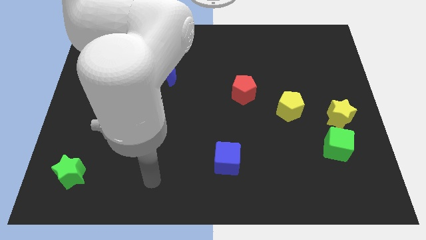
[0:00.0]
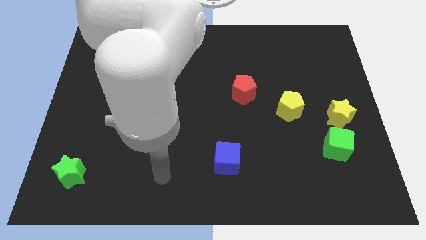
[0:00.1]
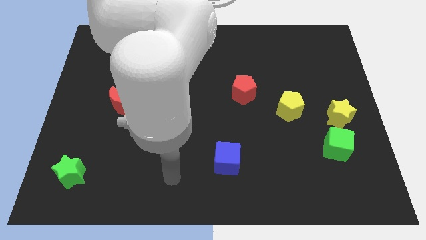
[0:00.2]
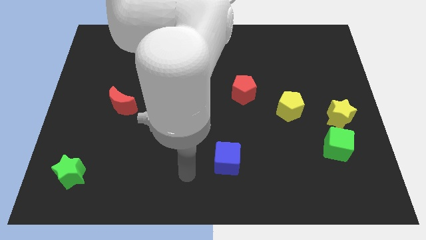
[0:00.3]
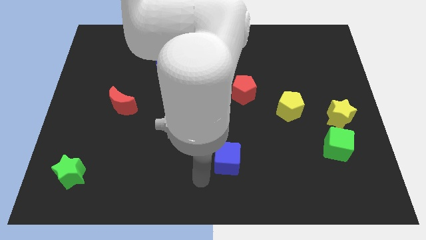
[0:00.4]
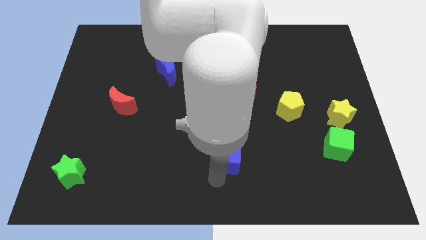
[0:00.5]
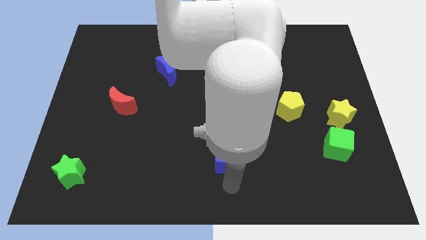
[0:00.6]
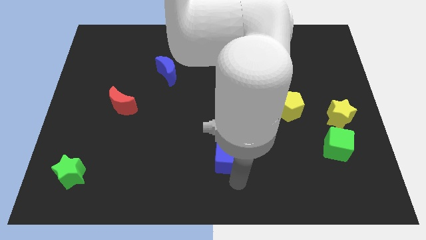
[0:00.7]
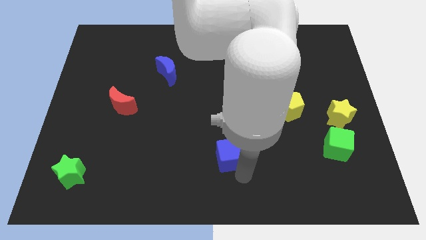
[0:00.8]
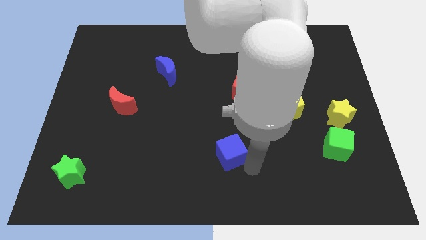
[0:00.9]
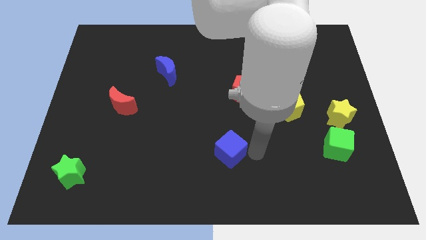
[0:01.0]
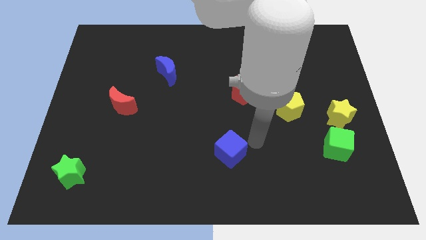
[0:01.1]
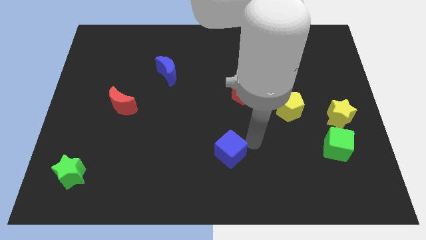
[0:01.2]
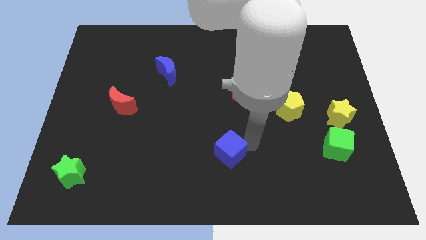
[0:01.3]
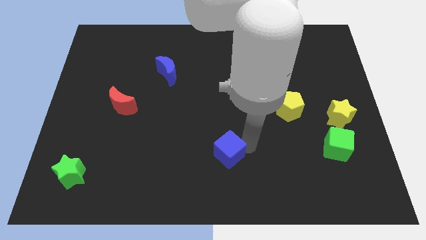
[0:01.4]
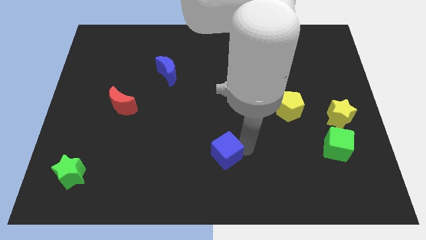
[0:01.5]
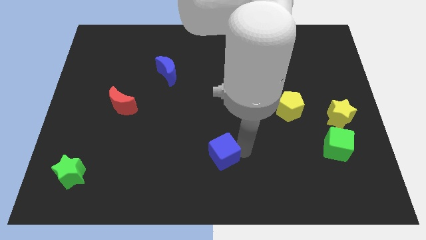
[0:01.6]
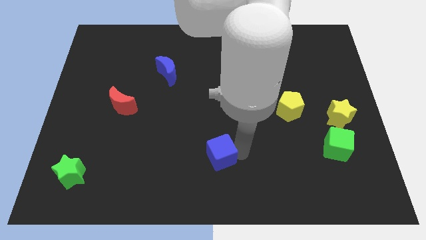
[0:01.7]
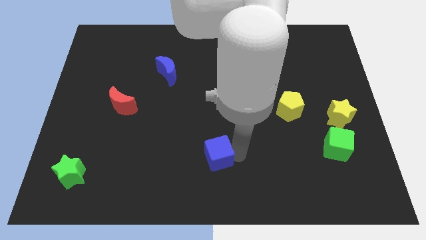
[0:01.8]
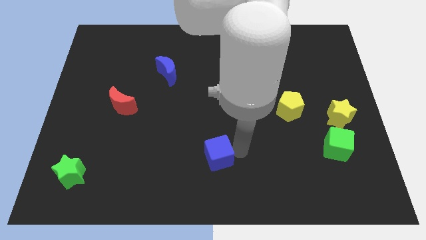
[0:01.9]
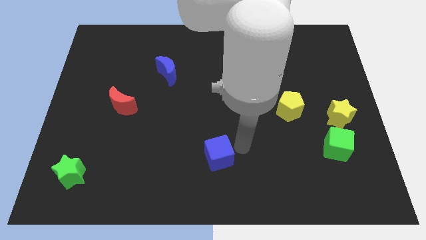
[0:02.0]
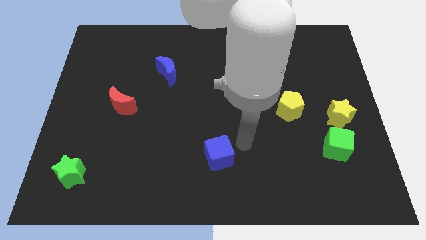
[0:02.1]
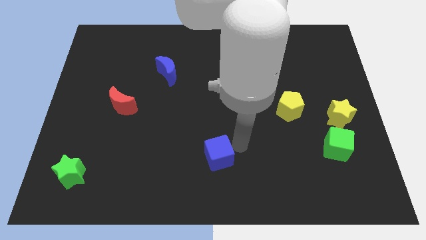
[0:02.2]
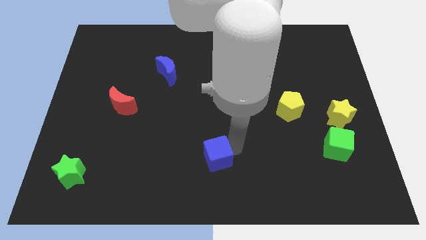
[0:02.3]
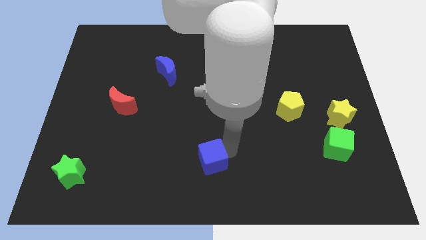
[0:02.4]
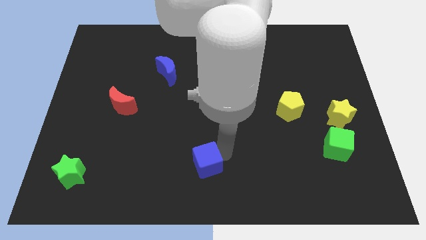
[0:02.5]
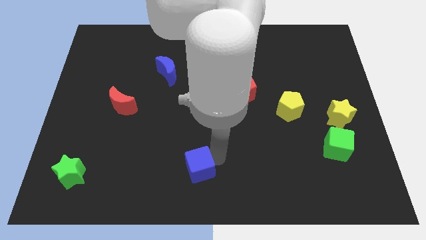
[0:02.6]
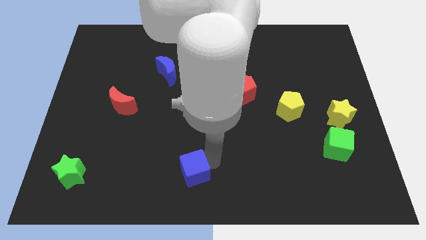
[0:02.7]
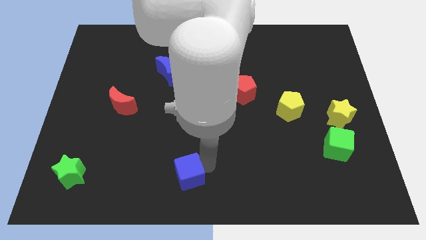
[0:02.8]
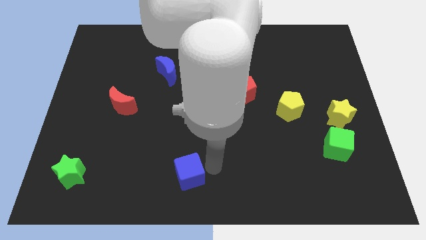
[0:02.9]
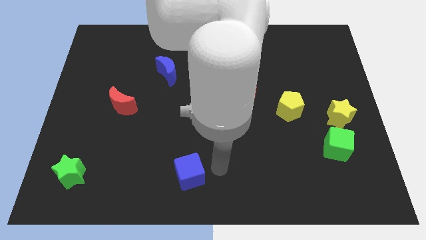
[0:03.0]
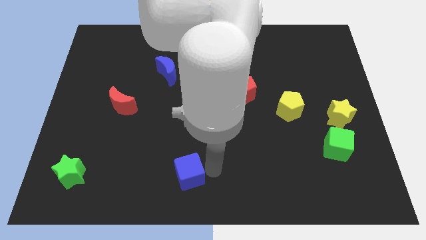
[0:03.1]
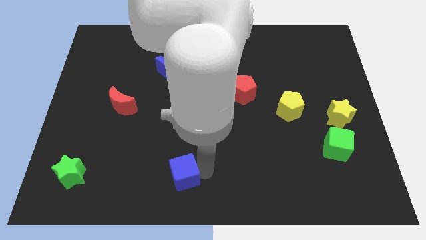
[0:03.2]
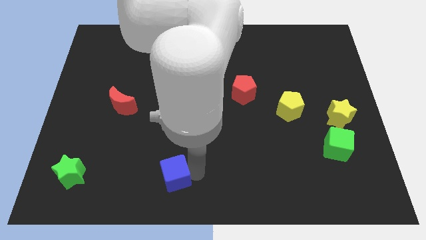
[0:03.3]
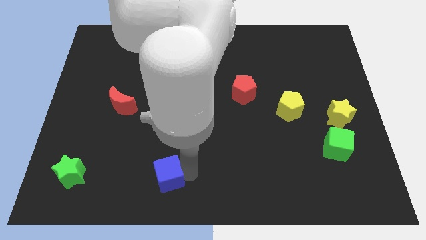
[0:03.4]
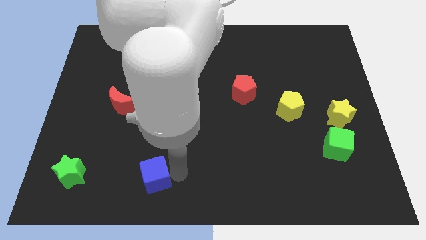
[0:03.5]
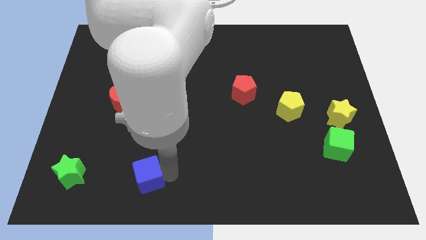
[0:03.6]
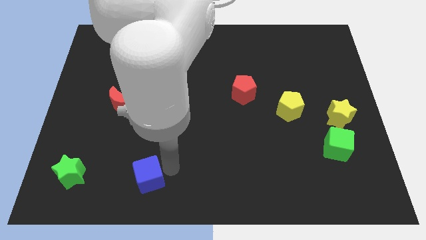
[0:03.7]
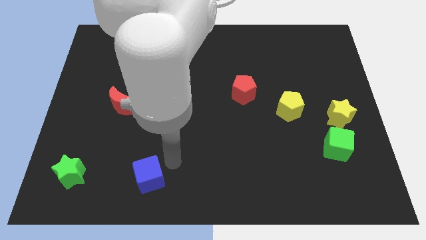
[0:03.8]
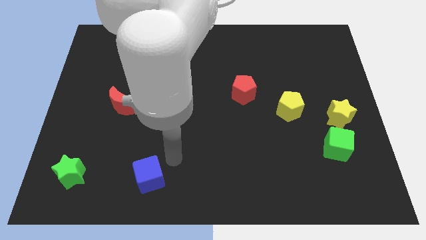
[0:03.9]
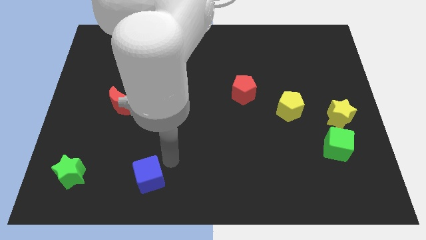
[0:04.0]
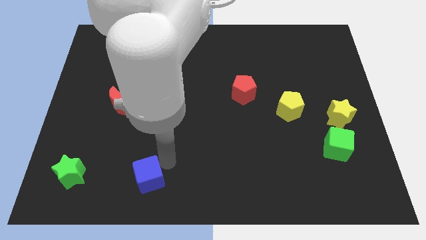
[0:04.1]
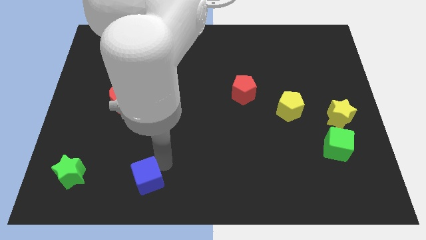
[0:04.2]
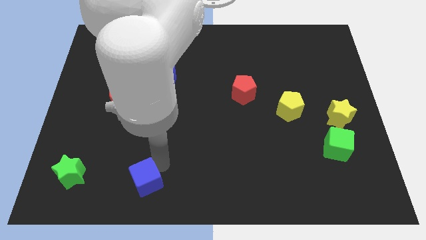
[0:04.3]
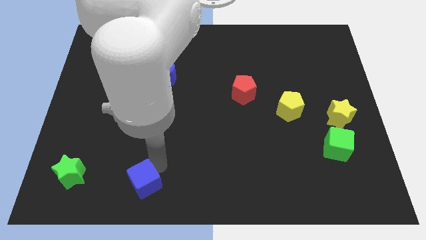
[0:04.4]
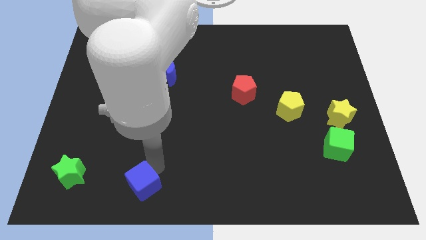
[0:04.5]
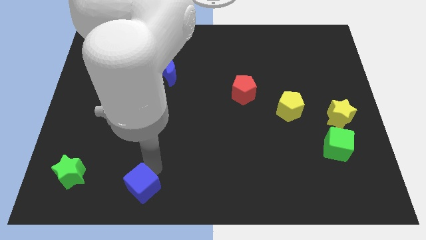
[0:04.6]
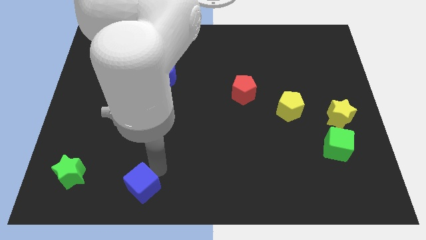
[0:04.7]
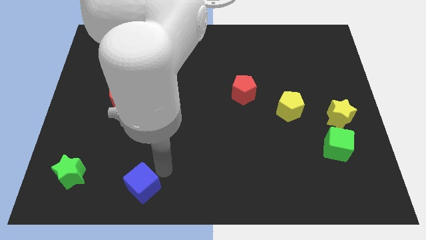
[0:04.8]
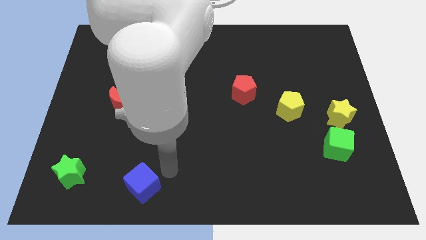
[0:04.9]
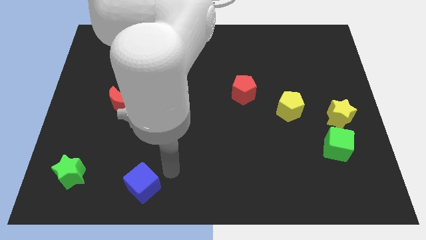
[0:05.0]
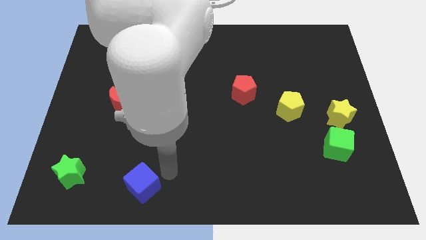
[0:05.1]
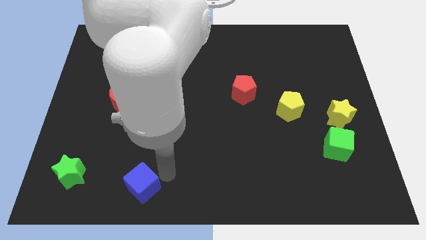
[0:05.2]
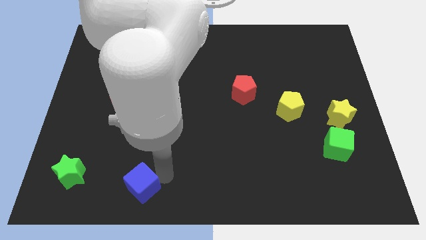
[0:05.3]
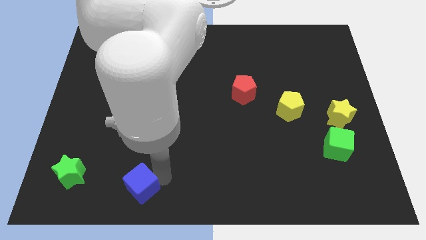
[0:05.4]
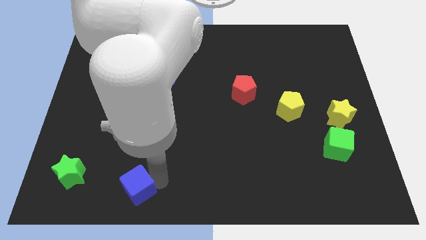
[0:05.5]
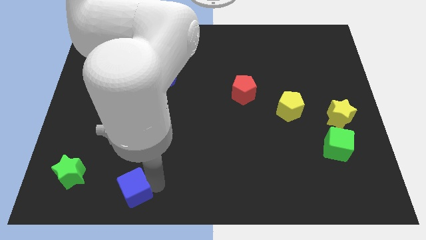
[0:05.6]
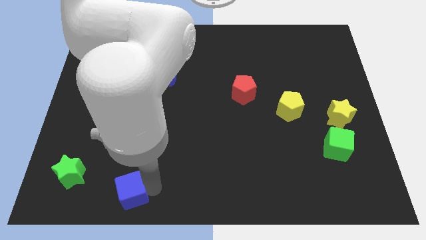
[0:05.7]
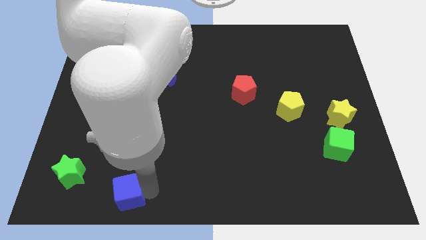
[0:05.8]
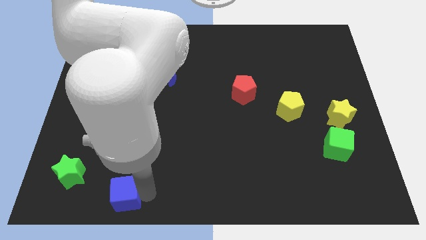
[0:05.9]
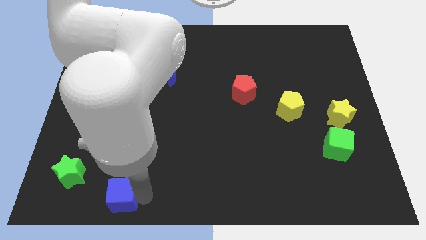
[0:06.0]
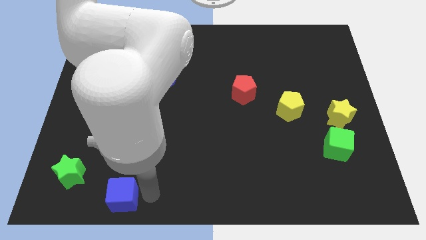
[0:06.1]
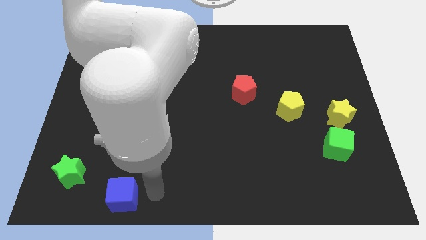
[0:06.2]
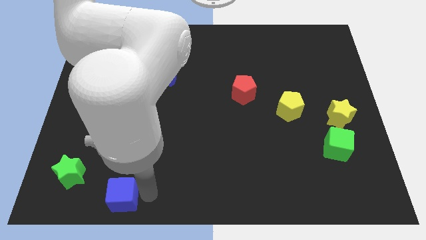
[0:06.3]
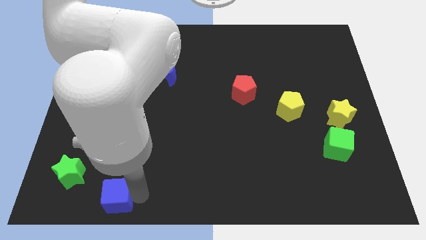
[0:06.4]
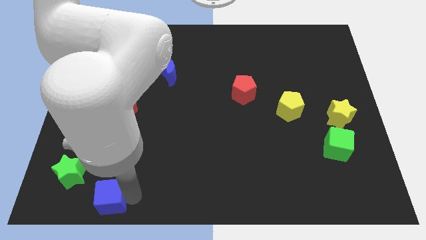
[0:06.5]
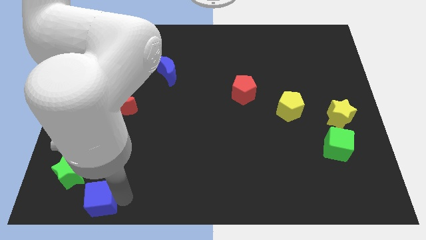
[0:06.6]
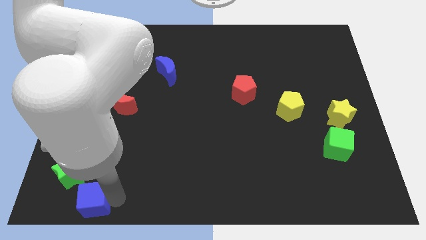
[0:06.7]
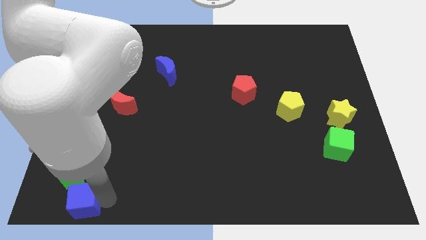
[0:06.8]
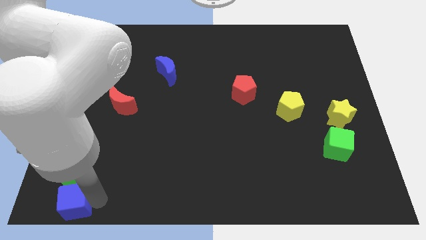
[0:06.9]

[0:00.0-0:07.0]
slide the blue cube to the bottom left corner
